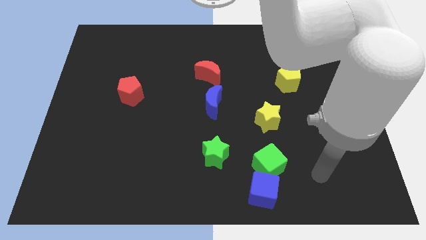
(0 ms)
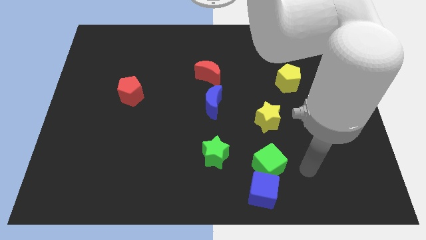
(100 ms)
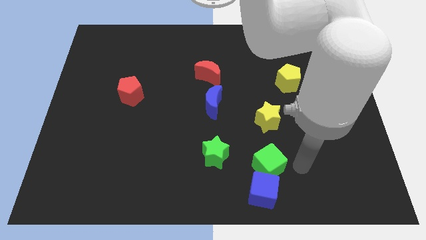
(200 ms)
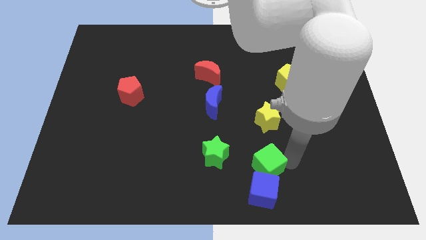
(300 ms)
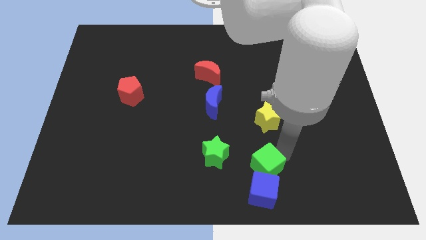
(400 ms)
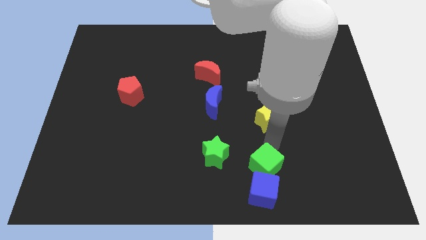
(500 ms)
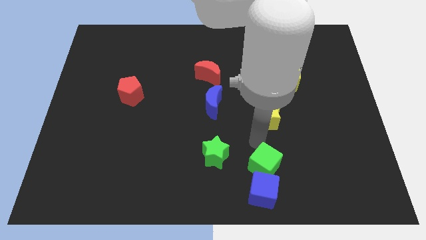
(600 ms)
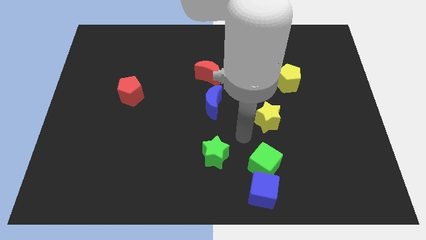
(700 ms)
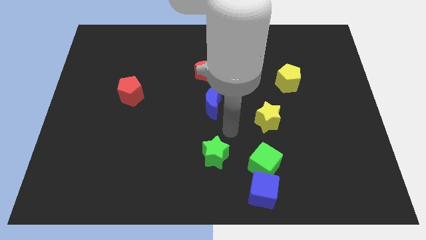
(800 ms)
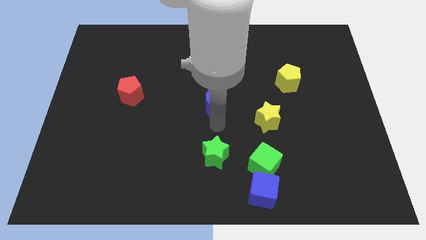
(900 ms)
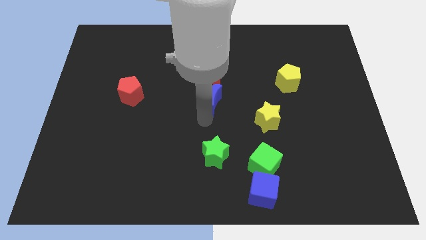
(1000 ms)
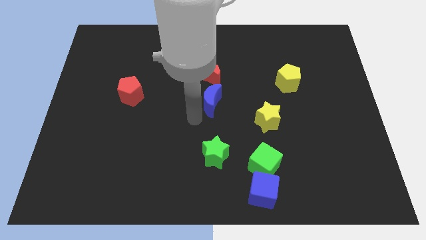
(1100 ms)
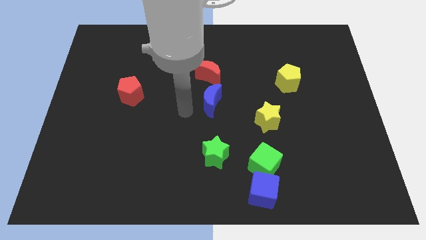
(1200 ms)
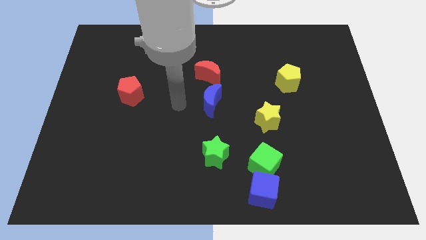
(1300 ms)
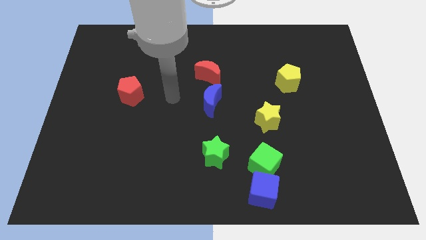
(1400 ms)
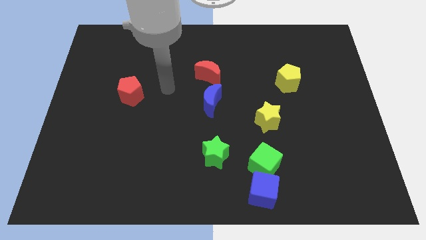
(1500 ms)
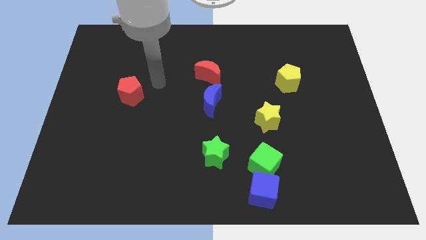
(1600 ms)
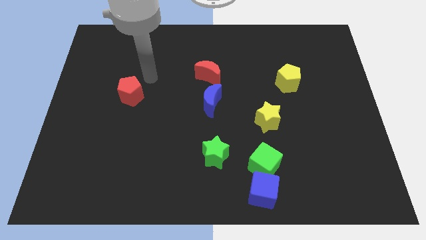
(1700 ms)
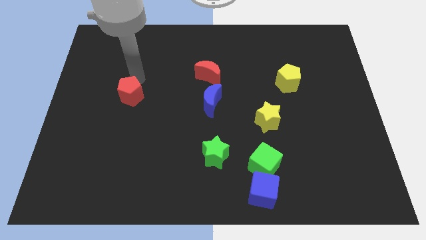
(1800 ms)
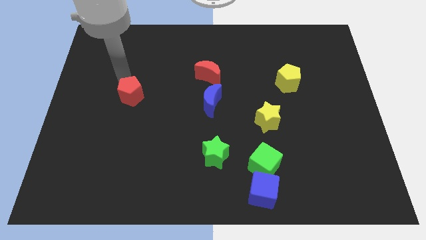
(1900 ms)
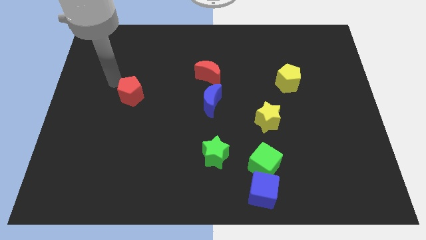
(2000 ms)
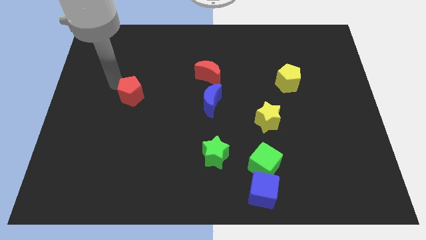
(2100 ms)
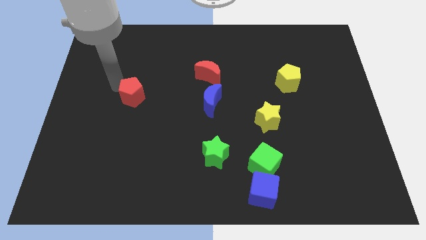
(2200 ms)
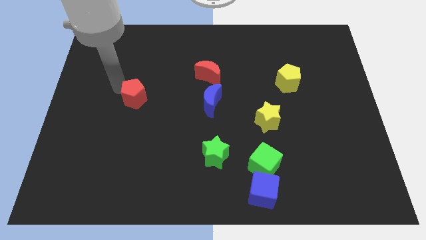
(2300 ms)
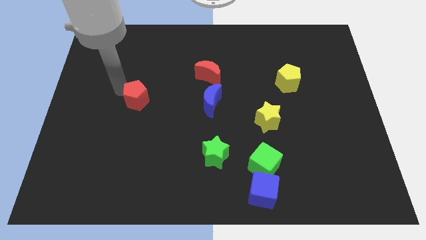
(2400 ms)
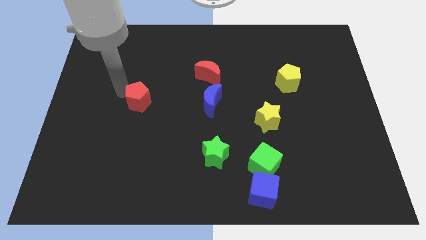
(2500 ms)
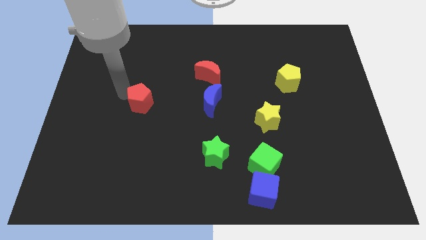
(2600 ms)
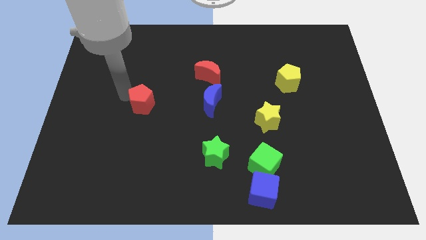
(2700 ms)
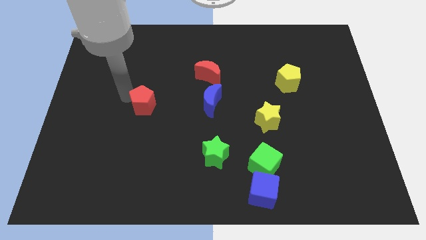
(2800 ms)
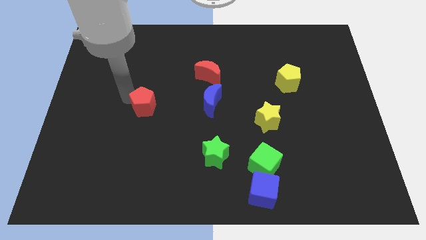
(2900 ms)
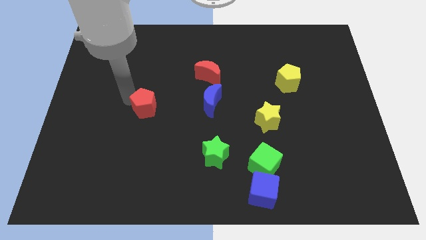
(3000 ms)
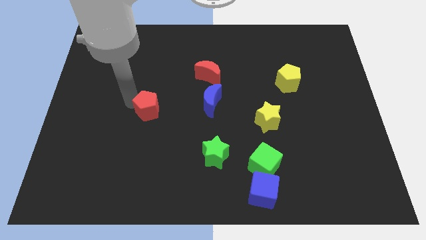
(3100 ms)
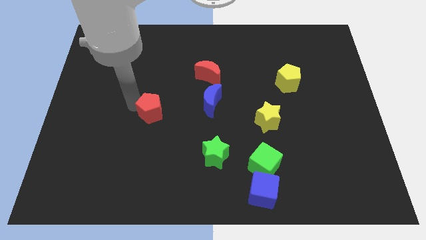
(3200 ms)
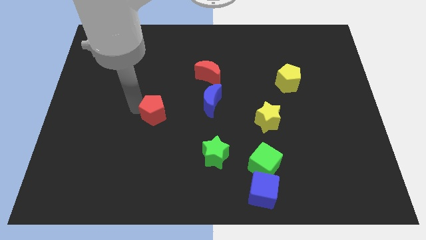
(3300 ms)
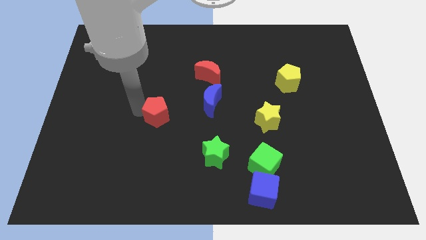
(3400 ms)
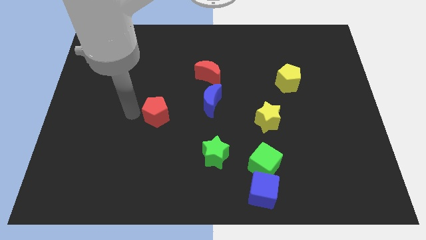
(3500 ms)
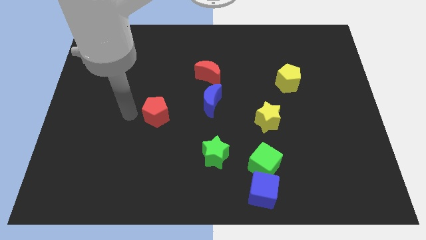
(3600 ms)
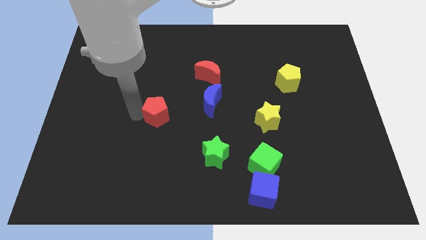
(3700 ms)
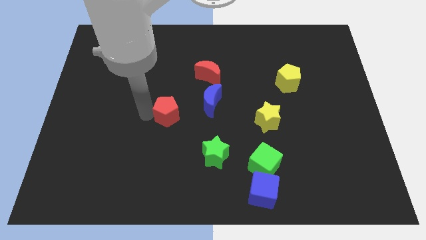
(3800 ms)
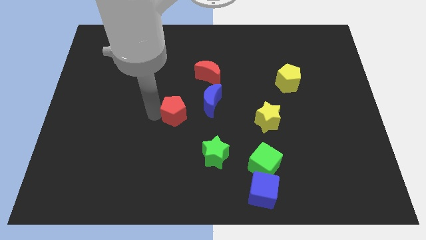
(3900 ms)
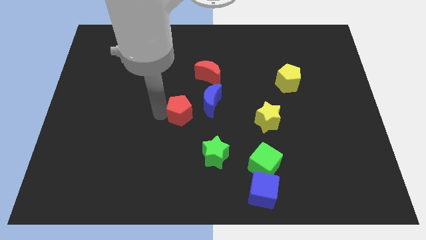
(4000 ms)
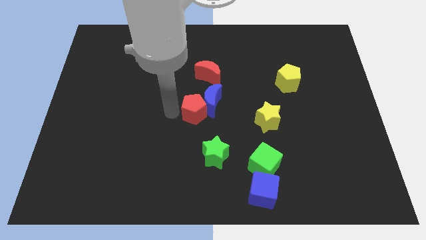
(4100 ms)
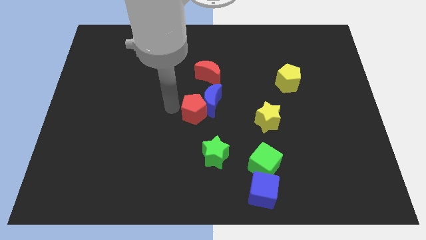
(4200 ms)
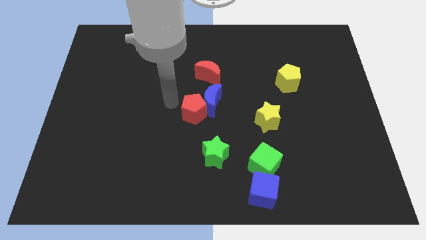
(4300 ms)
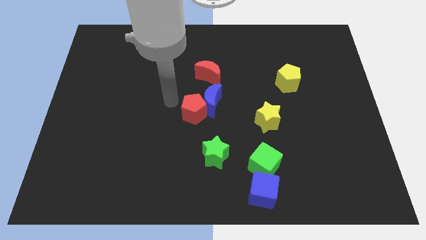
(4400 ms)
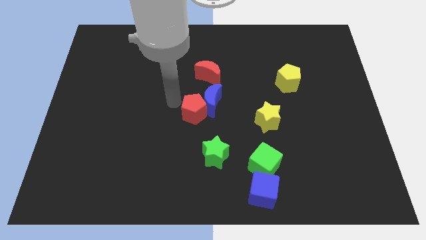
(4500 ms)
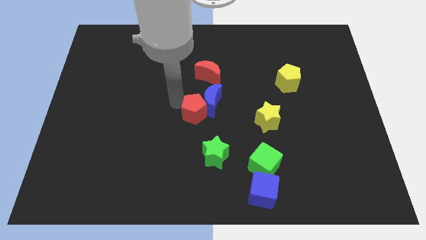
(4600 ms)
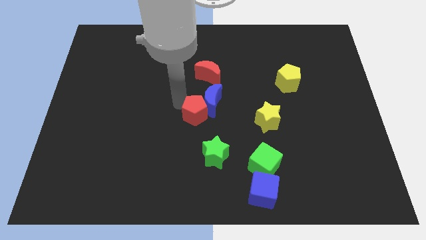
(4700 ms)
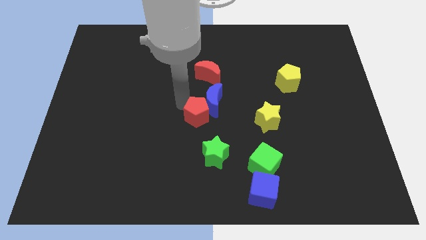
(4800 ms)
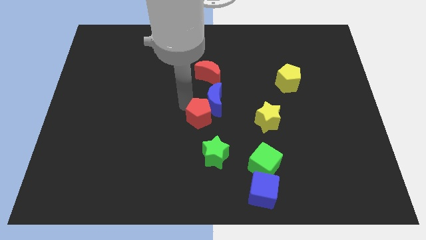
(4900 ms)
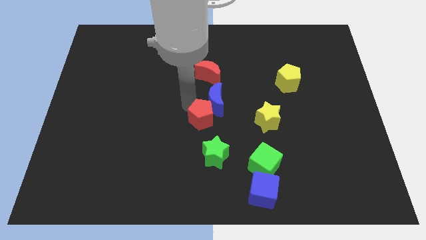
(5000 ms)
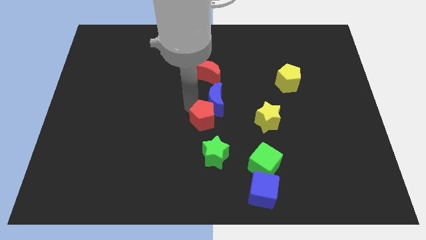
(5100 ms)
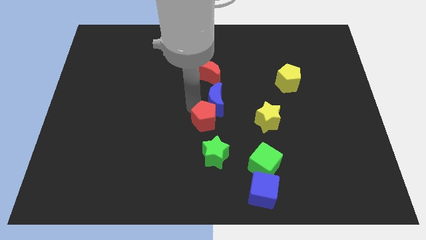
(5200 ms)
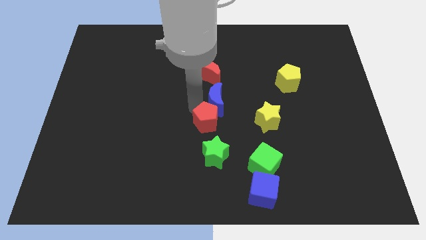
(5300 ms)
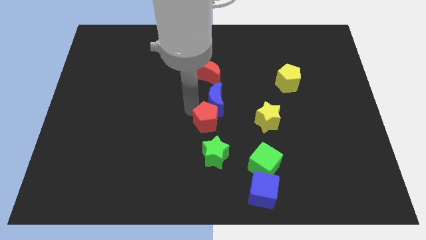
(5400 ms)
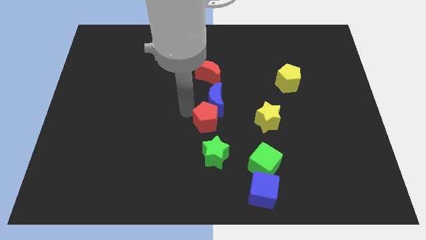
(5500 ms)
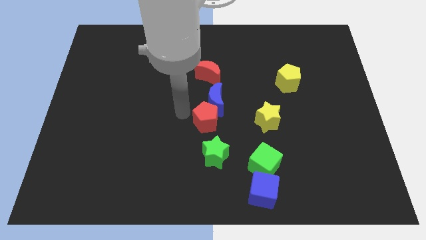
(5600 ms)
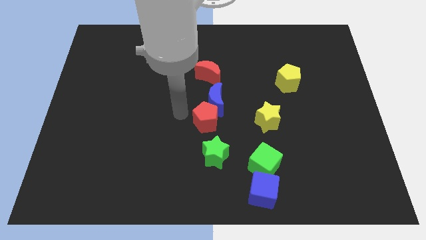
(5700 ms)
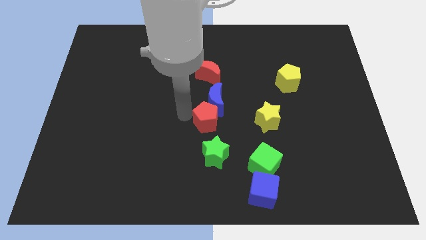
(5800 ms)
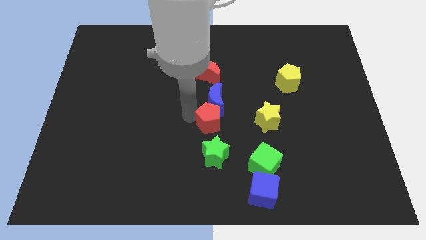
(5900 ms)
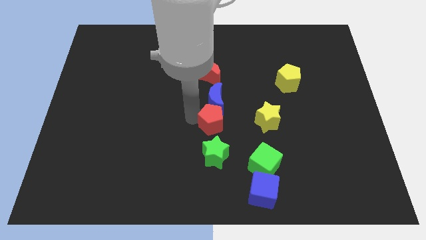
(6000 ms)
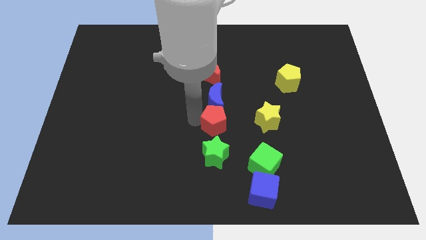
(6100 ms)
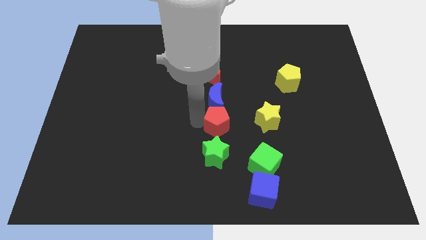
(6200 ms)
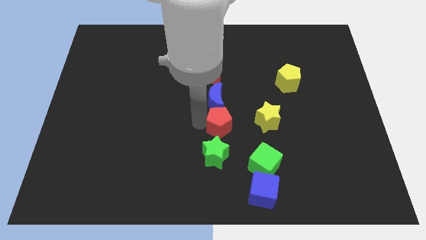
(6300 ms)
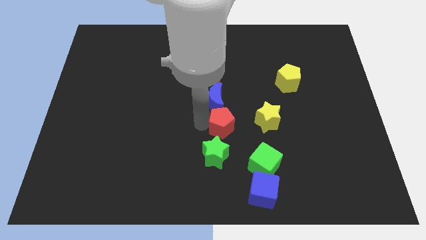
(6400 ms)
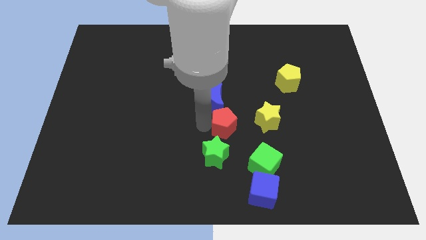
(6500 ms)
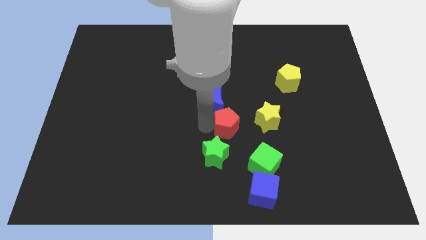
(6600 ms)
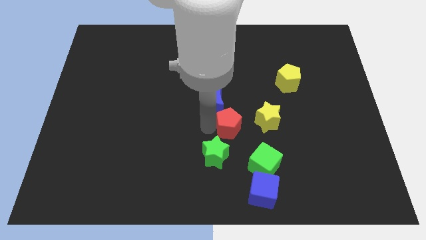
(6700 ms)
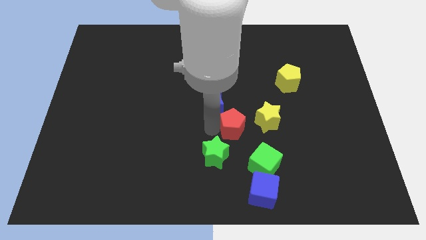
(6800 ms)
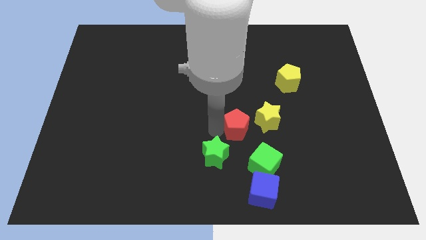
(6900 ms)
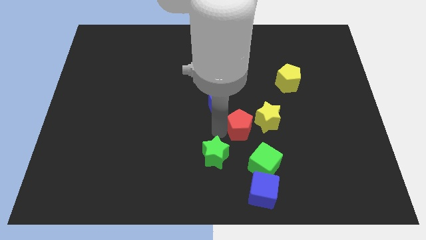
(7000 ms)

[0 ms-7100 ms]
move the red pentagon to the top side of the green cube

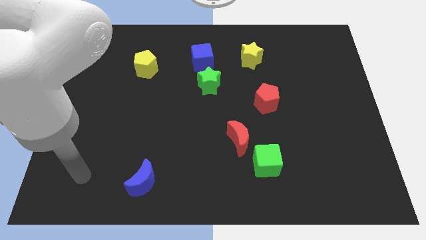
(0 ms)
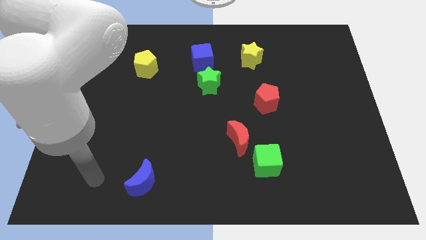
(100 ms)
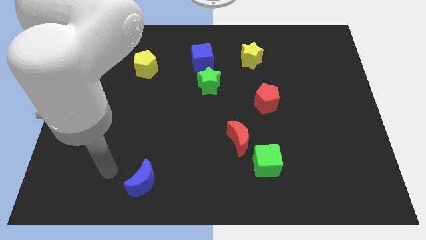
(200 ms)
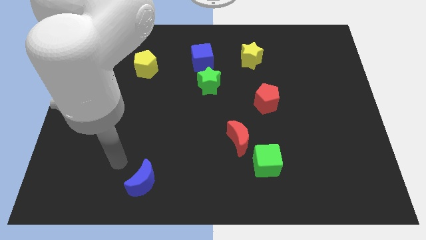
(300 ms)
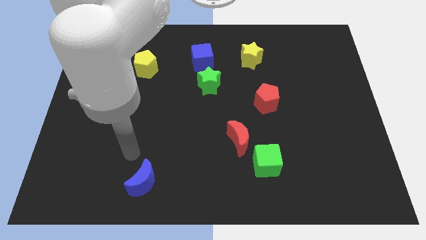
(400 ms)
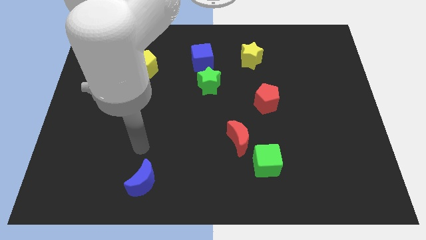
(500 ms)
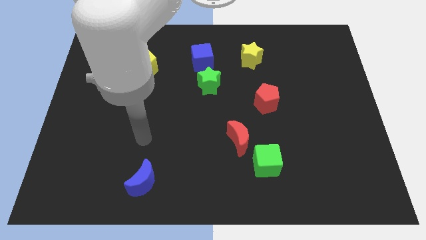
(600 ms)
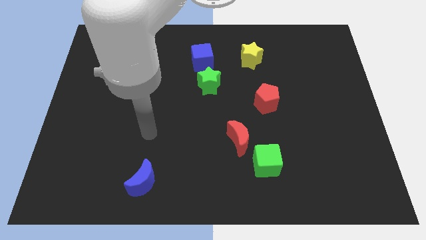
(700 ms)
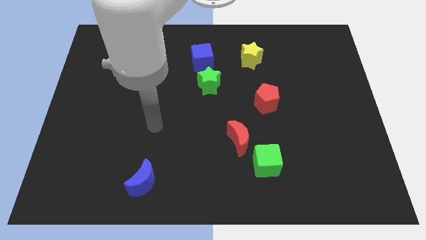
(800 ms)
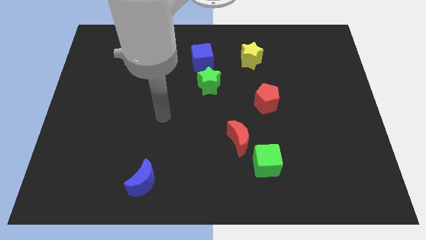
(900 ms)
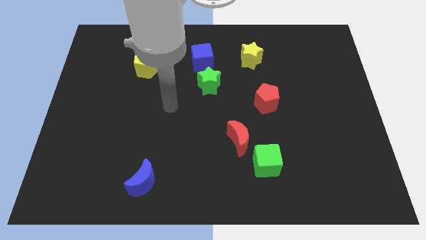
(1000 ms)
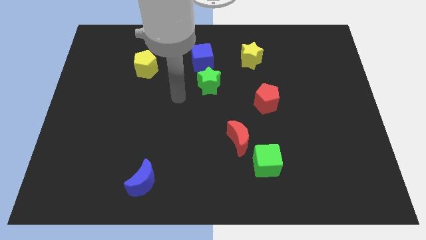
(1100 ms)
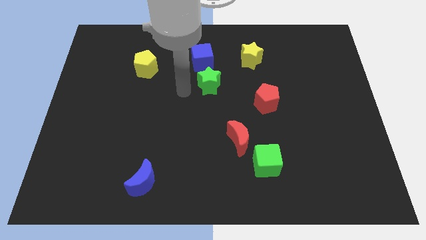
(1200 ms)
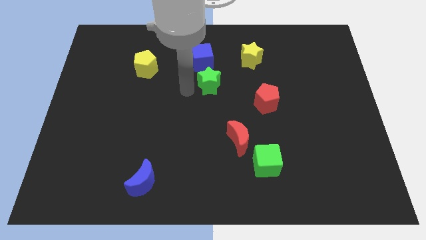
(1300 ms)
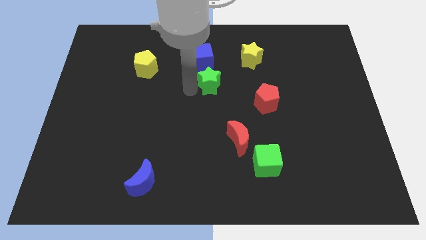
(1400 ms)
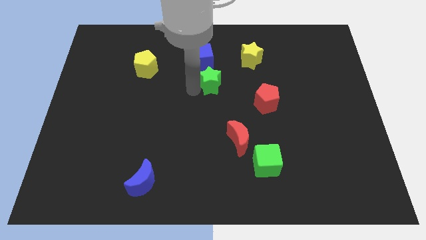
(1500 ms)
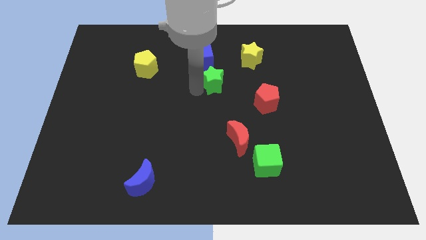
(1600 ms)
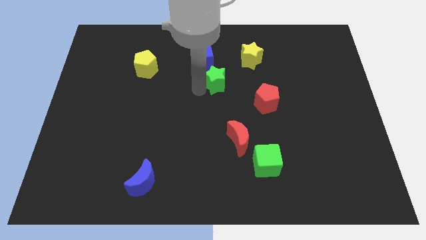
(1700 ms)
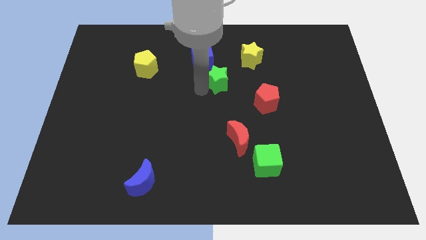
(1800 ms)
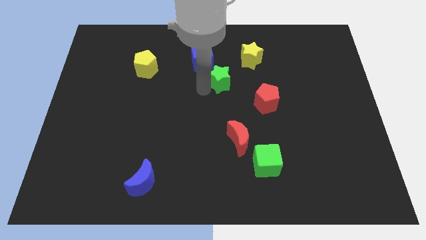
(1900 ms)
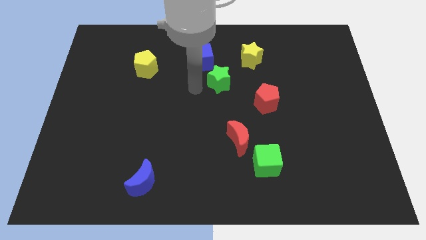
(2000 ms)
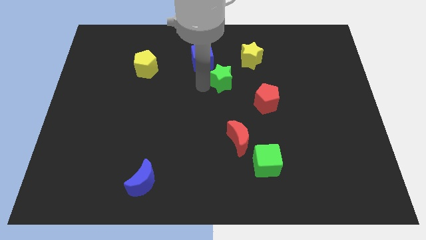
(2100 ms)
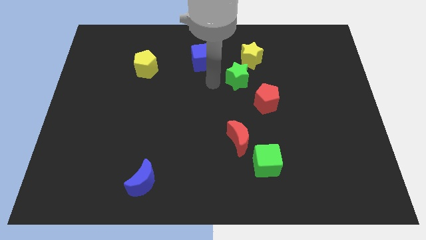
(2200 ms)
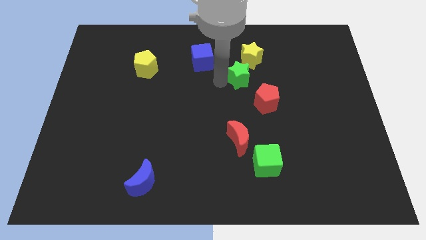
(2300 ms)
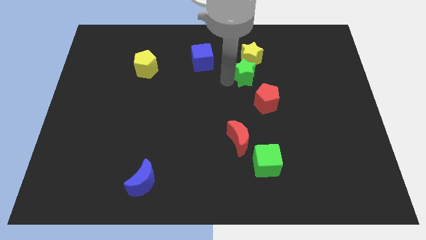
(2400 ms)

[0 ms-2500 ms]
slide the green star to the top side of the red pentagon
